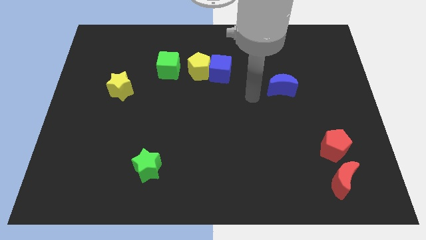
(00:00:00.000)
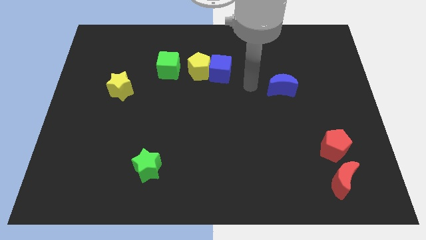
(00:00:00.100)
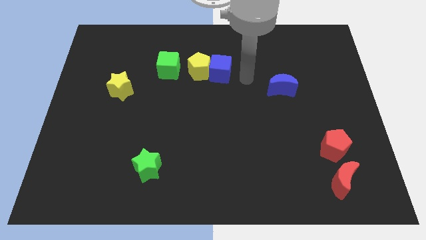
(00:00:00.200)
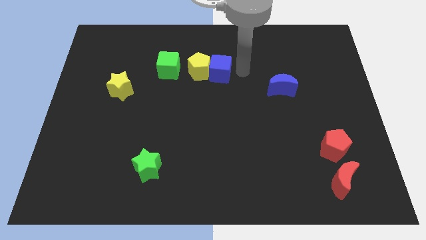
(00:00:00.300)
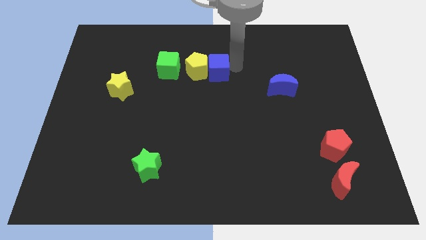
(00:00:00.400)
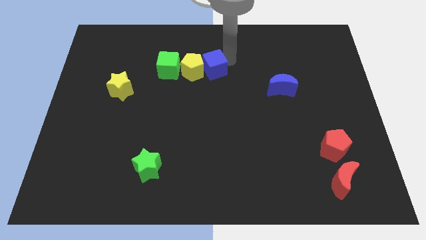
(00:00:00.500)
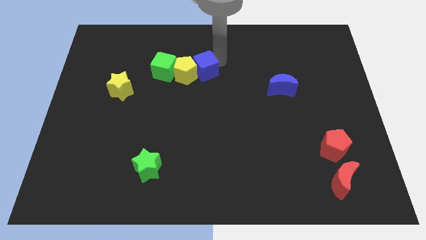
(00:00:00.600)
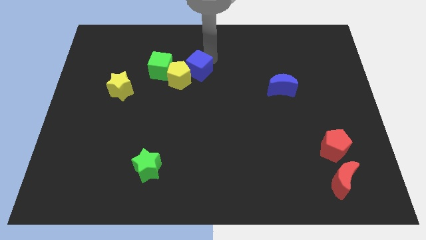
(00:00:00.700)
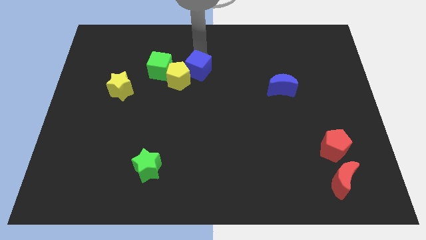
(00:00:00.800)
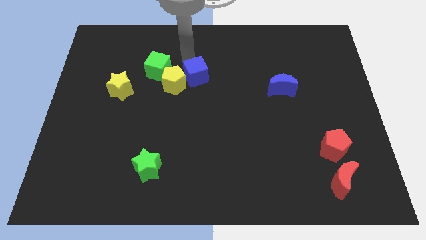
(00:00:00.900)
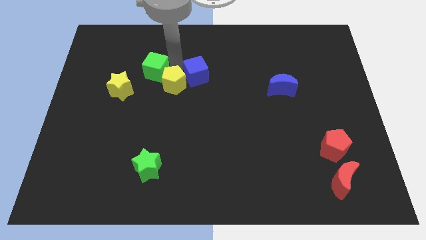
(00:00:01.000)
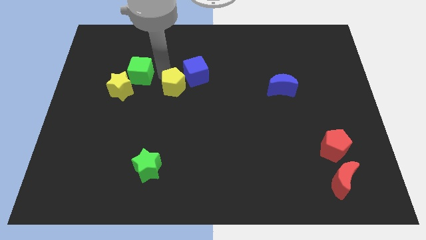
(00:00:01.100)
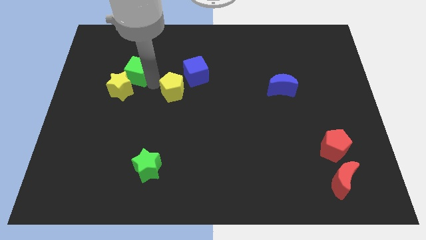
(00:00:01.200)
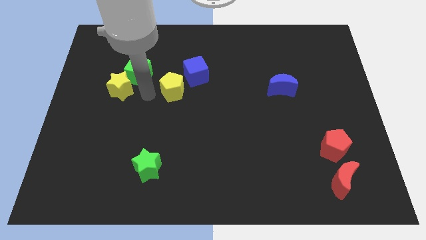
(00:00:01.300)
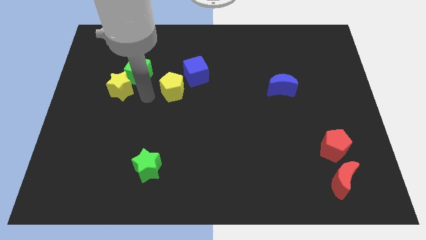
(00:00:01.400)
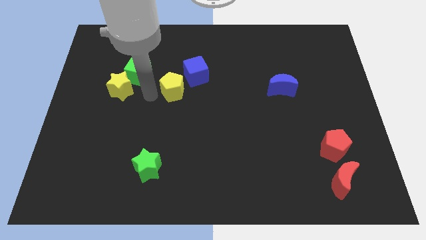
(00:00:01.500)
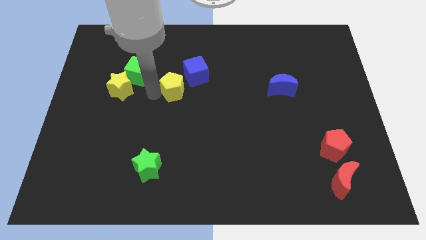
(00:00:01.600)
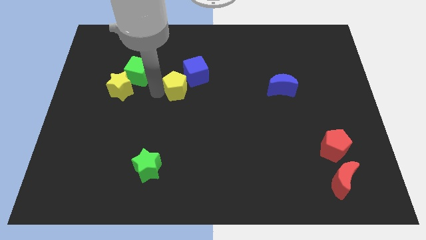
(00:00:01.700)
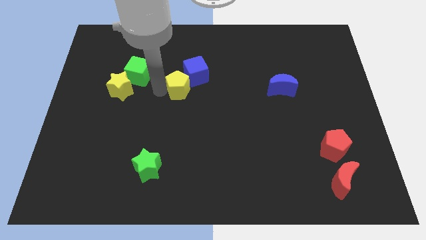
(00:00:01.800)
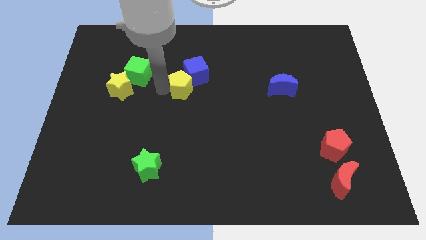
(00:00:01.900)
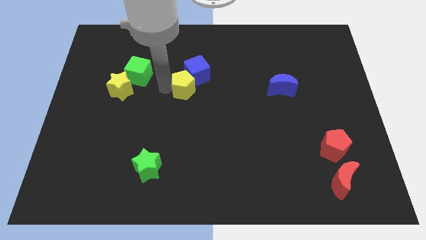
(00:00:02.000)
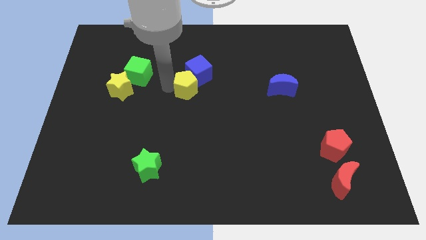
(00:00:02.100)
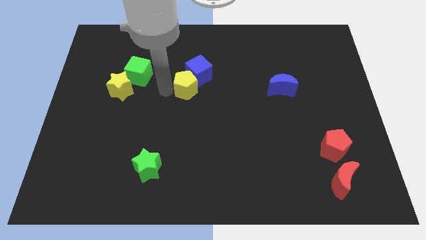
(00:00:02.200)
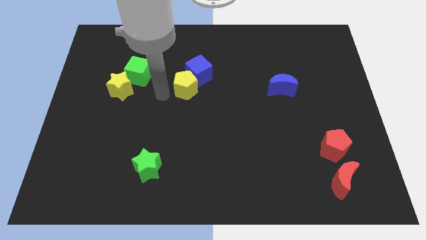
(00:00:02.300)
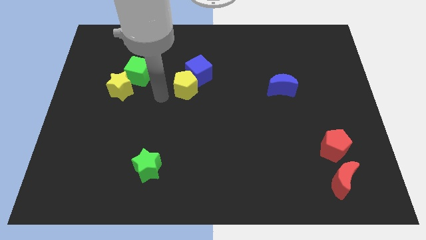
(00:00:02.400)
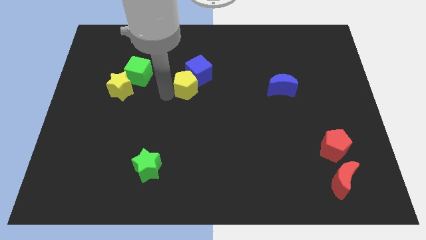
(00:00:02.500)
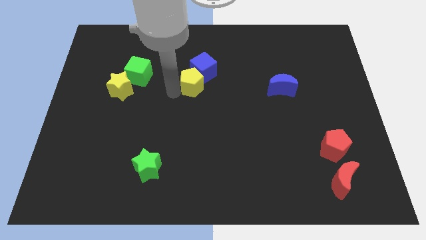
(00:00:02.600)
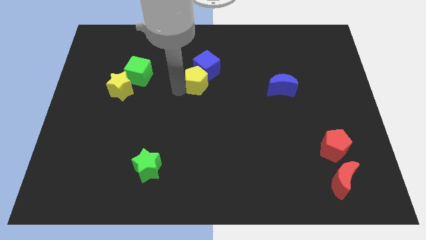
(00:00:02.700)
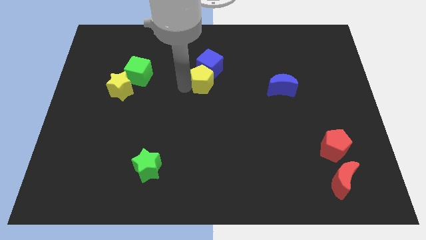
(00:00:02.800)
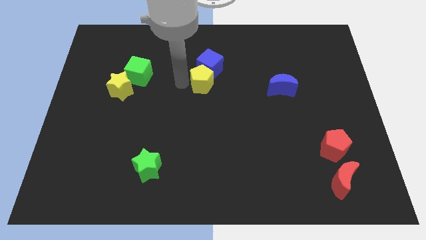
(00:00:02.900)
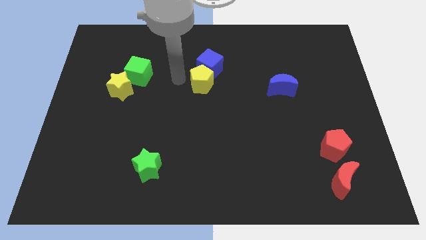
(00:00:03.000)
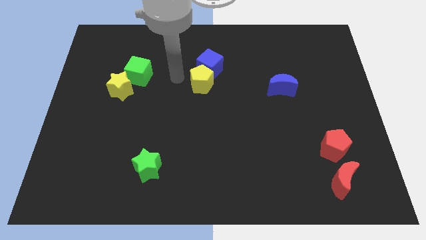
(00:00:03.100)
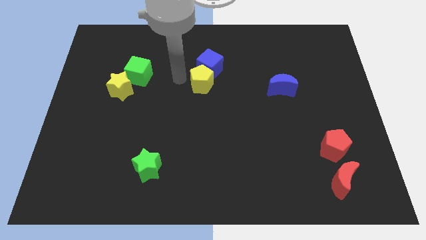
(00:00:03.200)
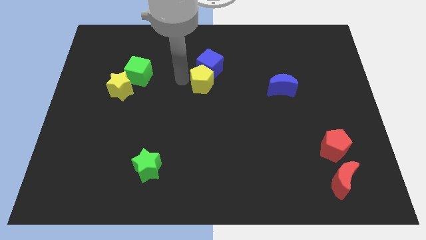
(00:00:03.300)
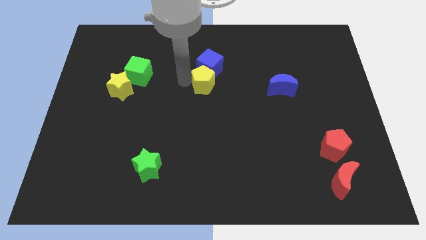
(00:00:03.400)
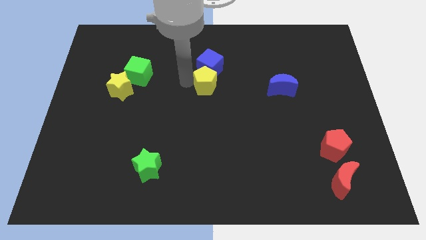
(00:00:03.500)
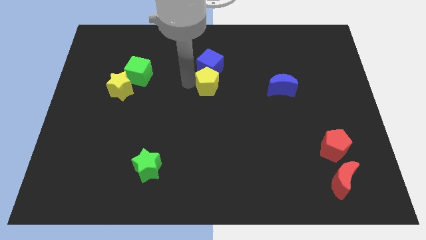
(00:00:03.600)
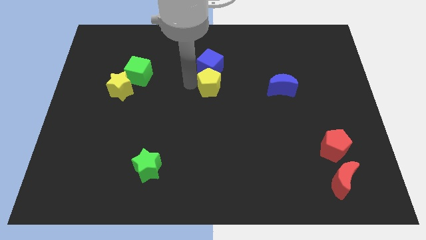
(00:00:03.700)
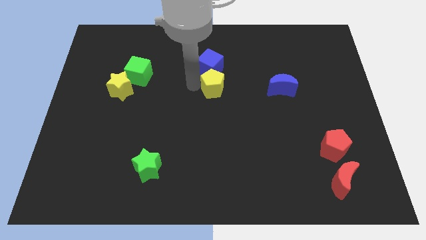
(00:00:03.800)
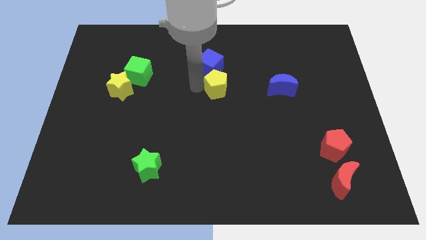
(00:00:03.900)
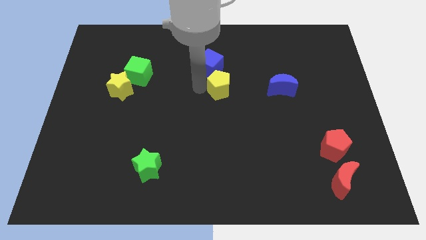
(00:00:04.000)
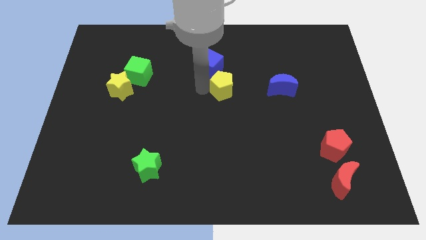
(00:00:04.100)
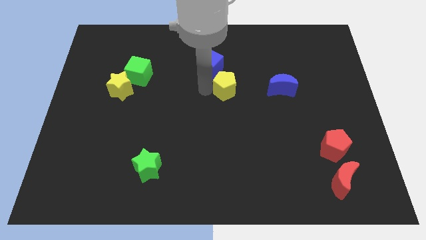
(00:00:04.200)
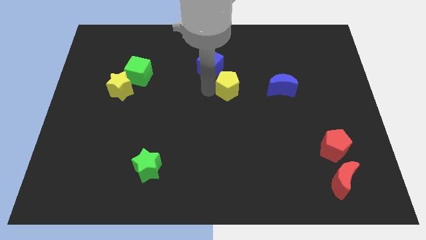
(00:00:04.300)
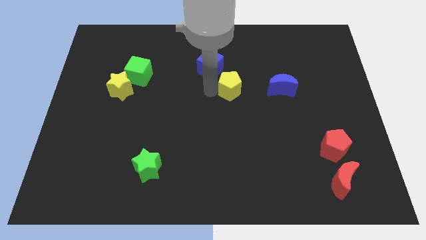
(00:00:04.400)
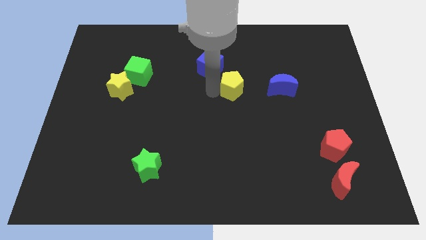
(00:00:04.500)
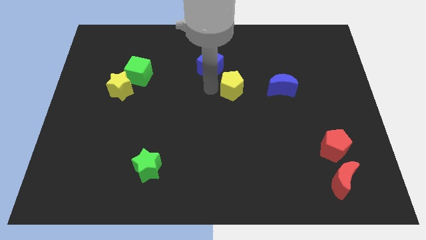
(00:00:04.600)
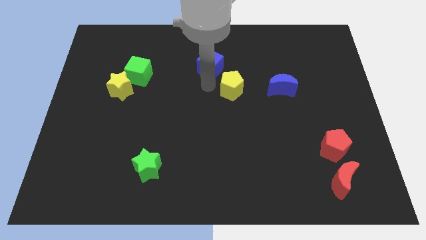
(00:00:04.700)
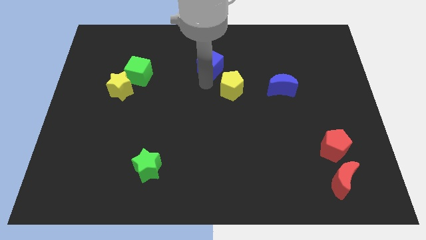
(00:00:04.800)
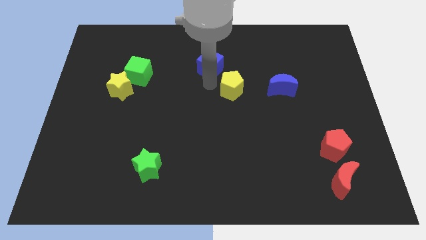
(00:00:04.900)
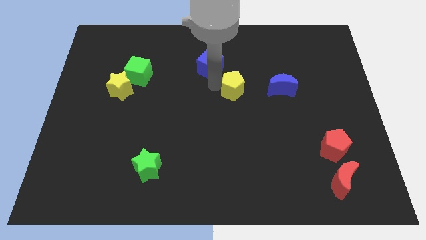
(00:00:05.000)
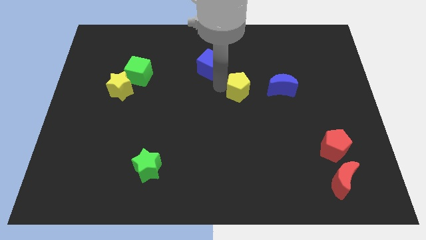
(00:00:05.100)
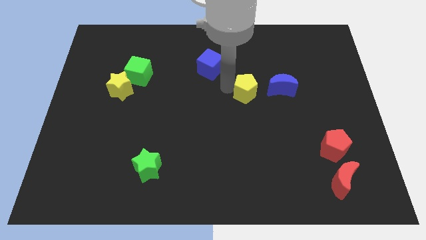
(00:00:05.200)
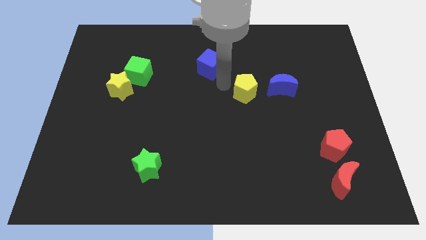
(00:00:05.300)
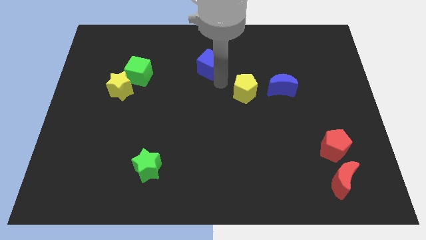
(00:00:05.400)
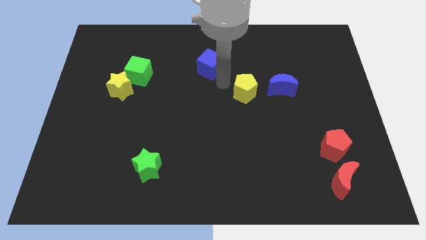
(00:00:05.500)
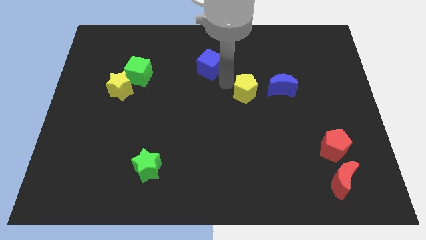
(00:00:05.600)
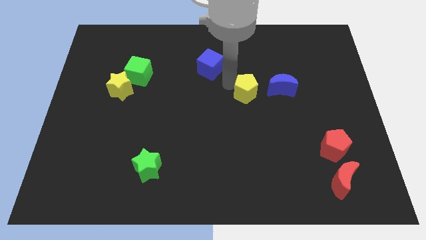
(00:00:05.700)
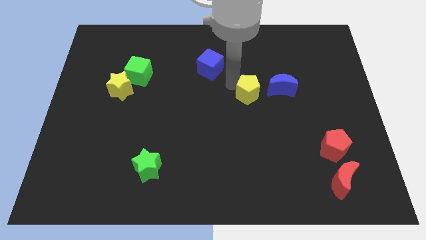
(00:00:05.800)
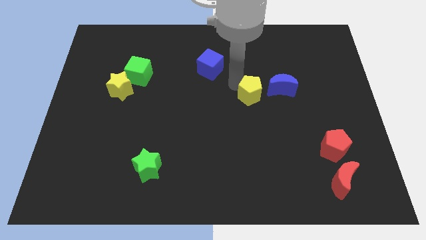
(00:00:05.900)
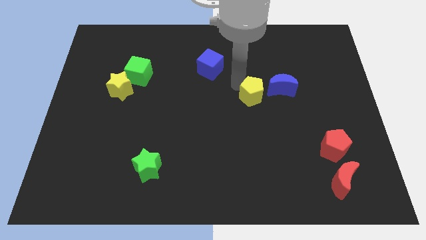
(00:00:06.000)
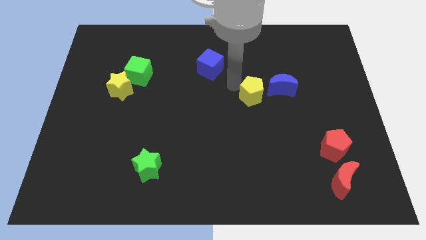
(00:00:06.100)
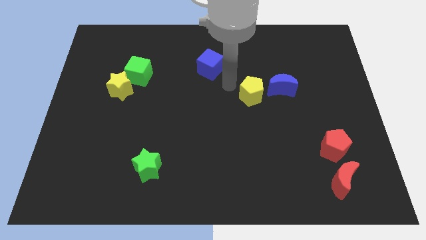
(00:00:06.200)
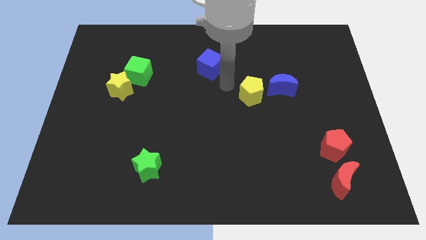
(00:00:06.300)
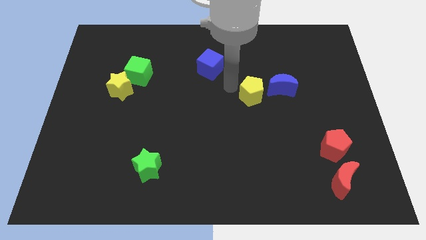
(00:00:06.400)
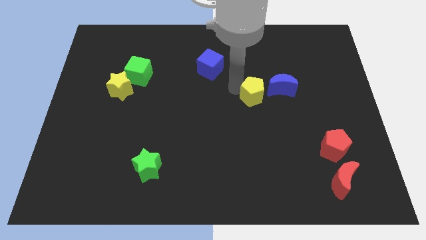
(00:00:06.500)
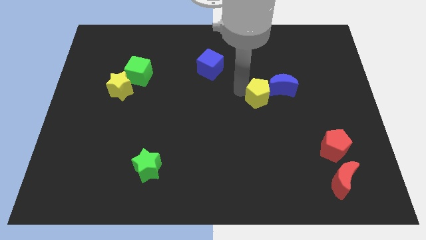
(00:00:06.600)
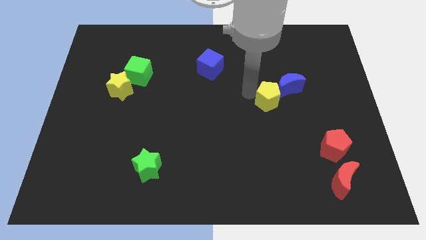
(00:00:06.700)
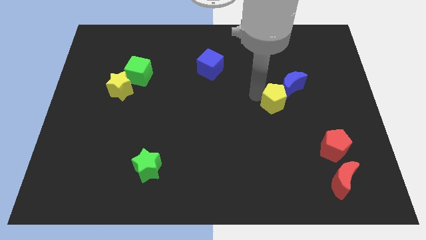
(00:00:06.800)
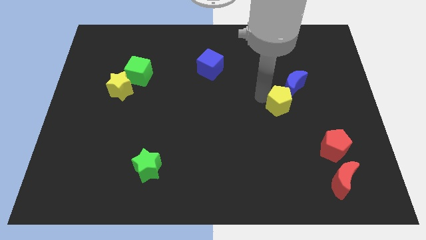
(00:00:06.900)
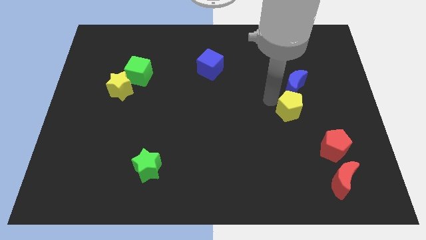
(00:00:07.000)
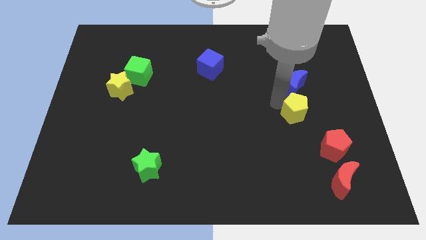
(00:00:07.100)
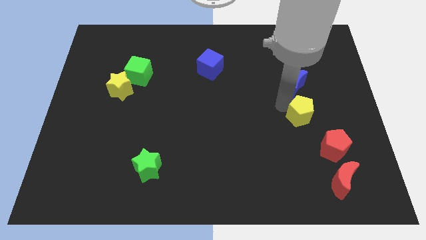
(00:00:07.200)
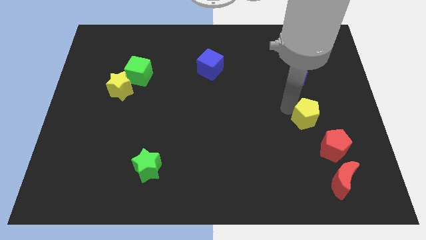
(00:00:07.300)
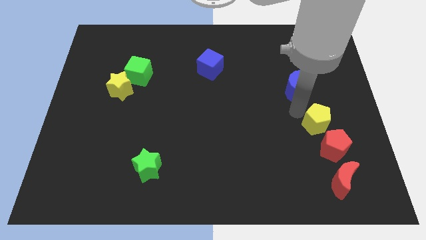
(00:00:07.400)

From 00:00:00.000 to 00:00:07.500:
push the yellow pentagon above the red moon
